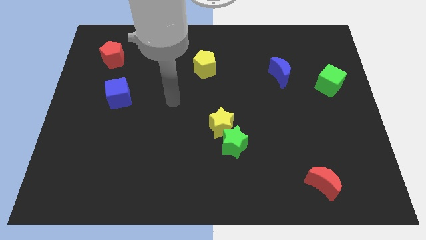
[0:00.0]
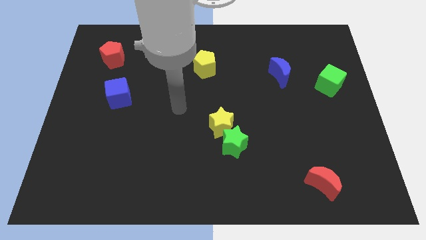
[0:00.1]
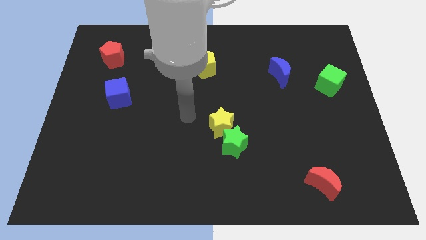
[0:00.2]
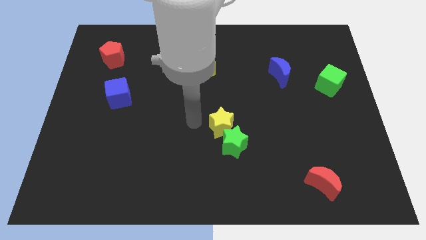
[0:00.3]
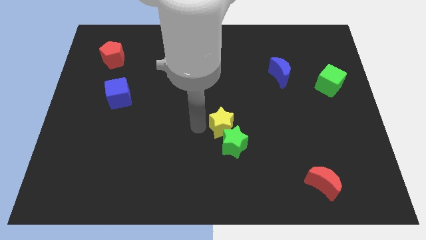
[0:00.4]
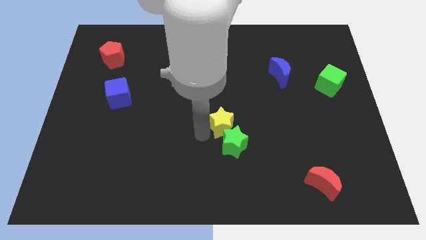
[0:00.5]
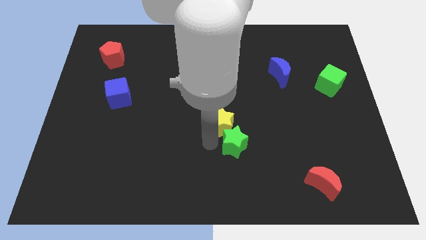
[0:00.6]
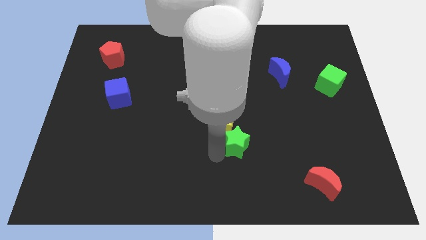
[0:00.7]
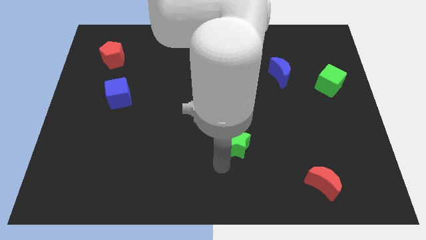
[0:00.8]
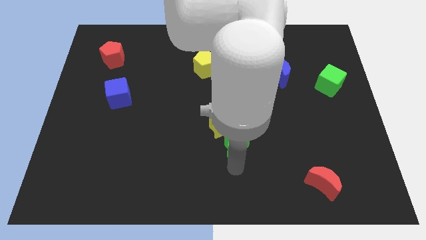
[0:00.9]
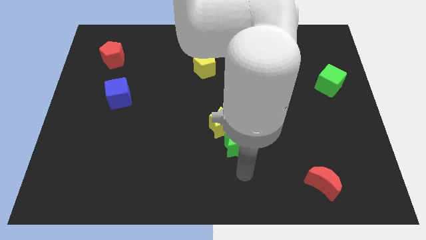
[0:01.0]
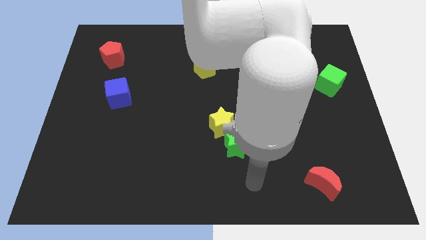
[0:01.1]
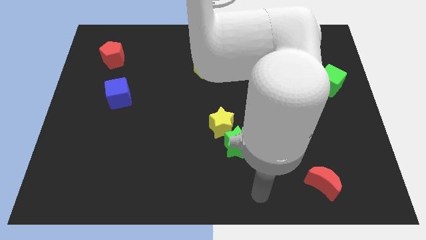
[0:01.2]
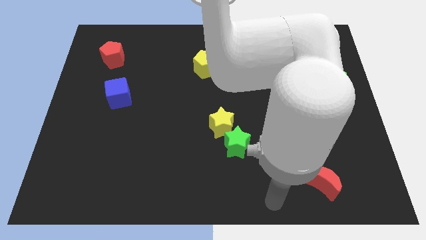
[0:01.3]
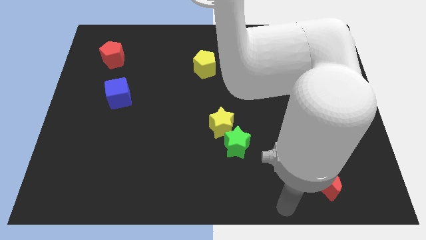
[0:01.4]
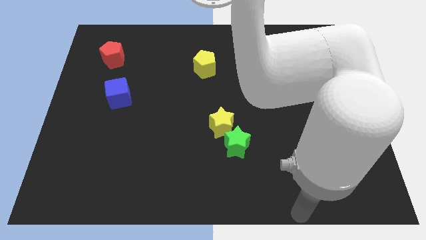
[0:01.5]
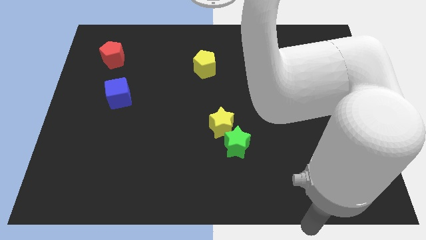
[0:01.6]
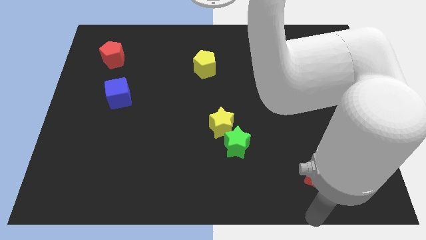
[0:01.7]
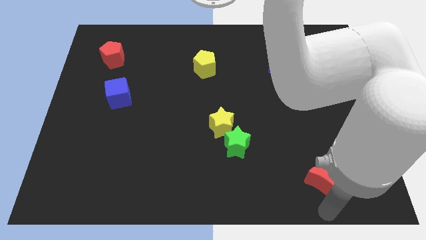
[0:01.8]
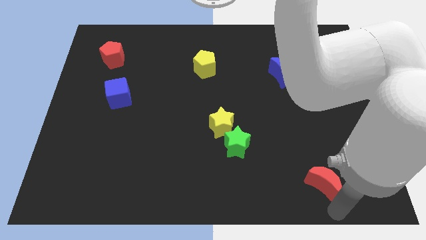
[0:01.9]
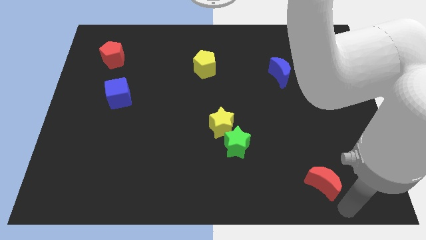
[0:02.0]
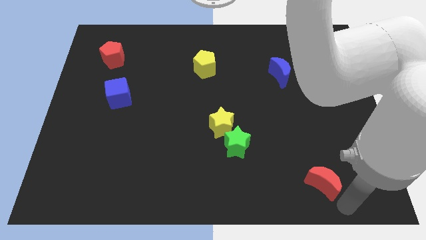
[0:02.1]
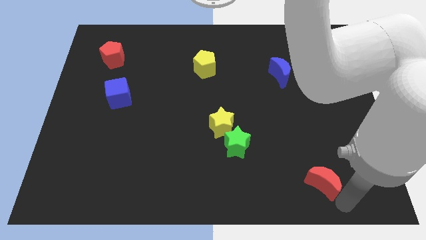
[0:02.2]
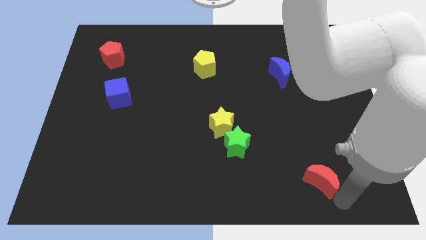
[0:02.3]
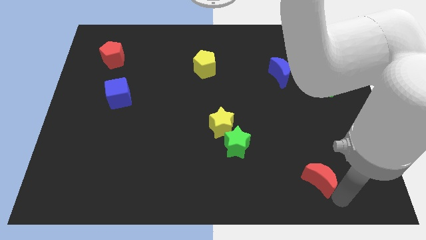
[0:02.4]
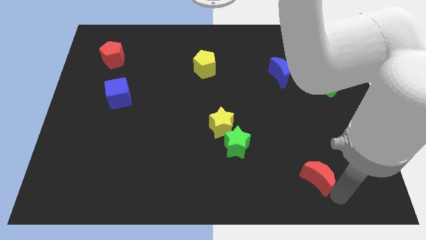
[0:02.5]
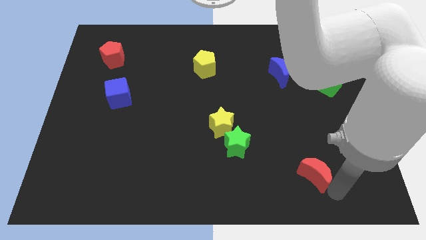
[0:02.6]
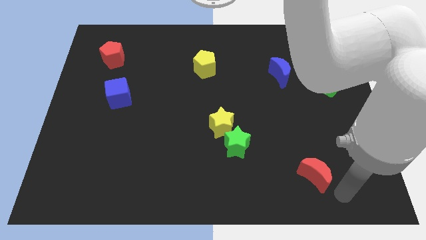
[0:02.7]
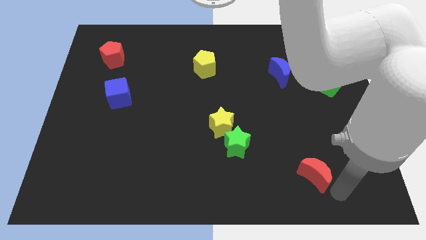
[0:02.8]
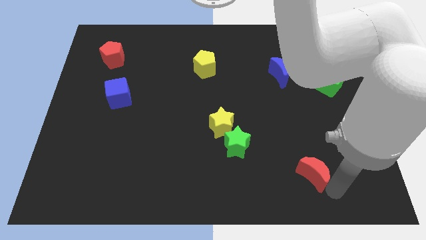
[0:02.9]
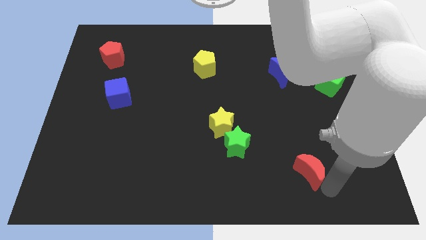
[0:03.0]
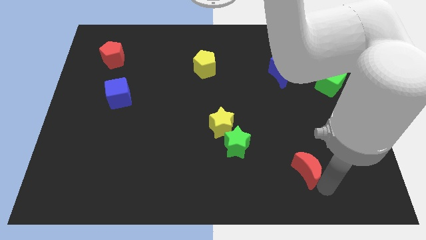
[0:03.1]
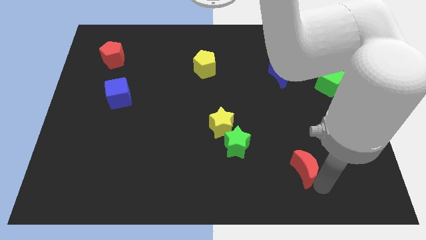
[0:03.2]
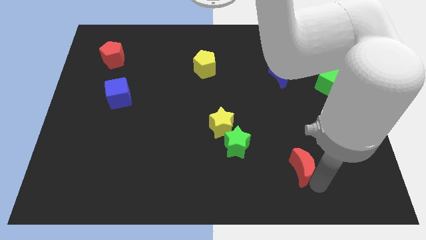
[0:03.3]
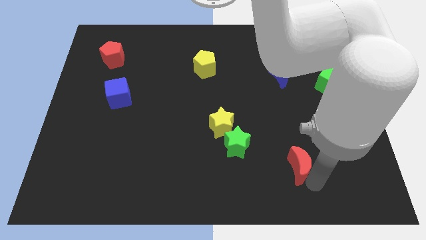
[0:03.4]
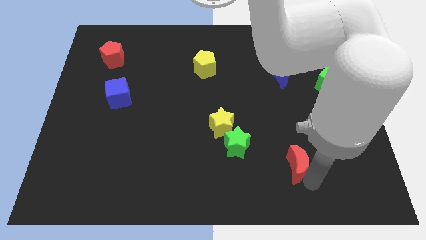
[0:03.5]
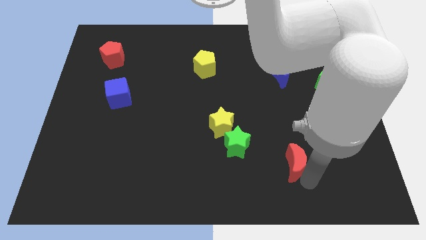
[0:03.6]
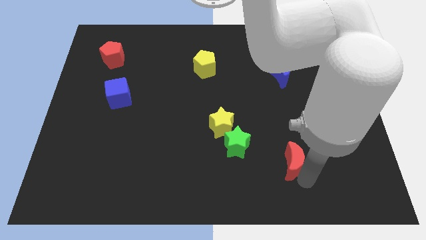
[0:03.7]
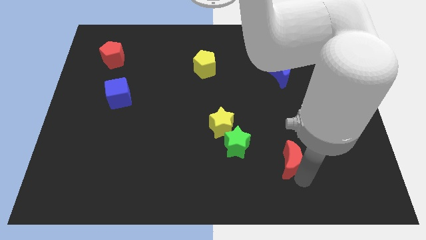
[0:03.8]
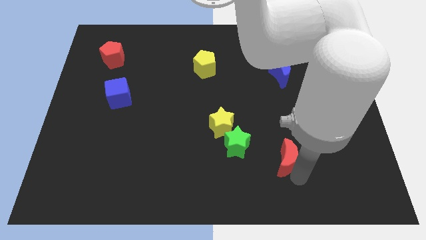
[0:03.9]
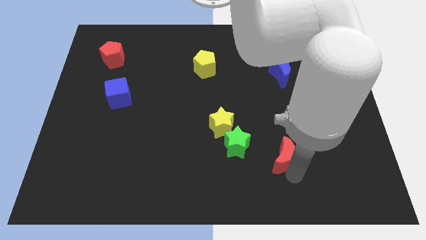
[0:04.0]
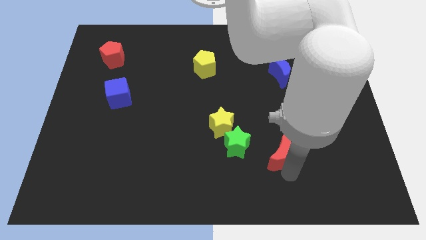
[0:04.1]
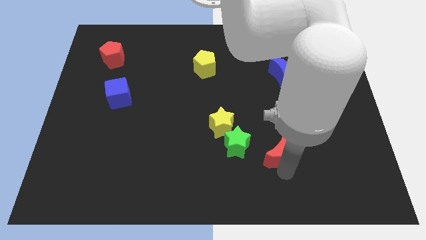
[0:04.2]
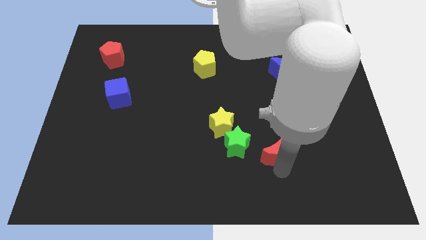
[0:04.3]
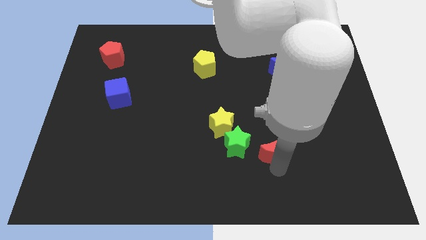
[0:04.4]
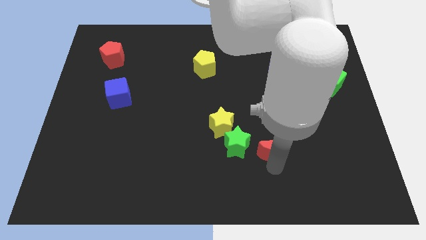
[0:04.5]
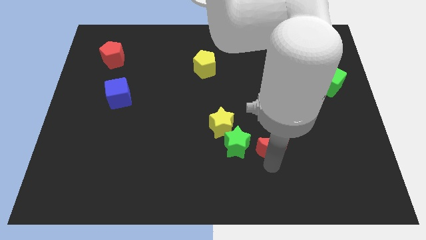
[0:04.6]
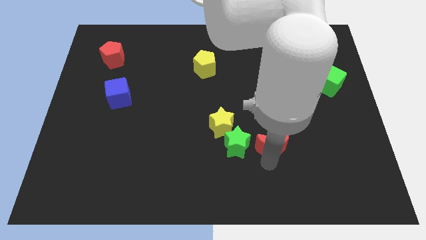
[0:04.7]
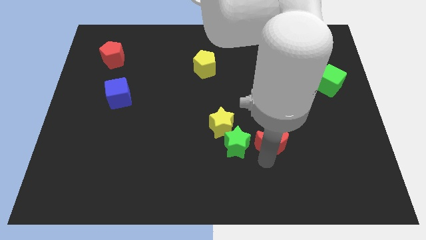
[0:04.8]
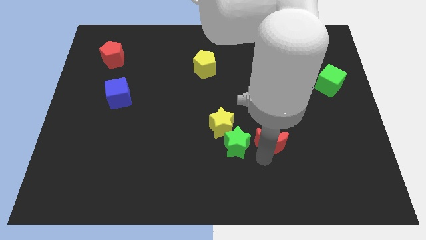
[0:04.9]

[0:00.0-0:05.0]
push the red moon to the right side of the yellow star

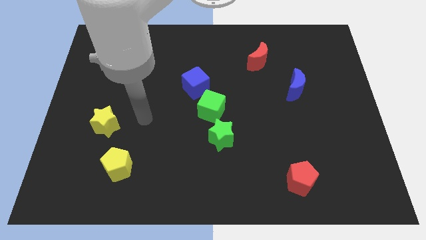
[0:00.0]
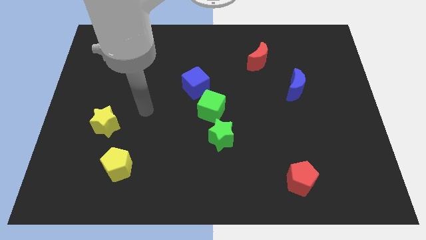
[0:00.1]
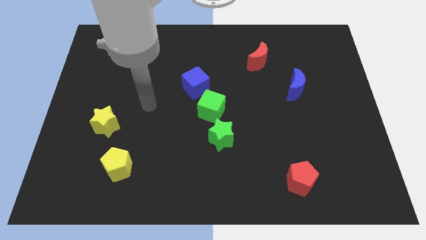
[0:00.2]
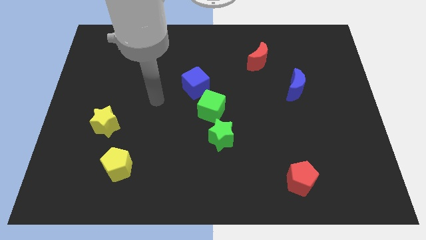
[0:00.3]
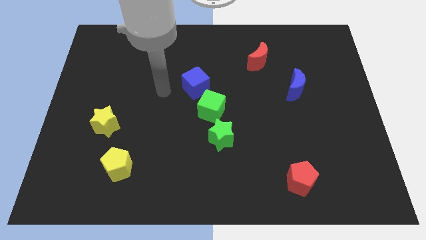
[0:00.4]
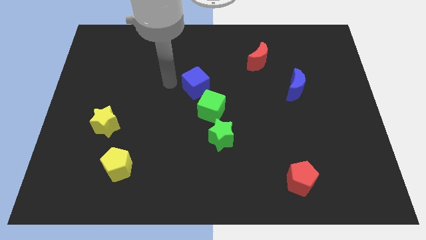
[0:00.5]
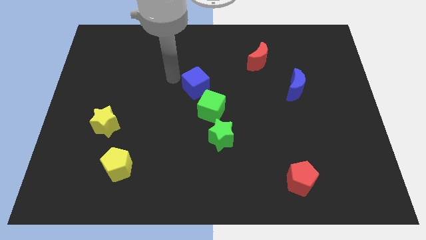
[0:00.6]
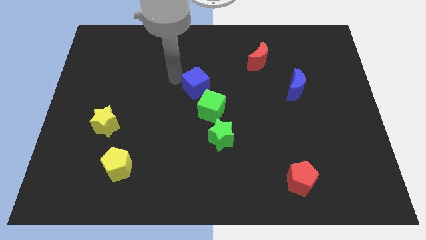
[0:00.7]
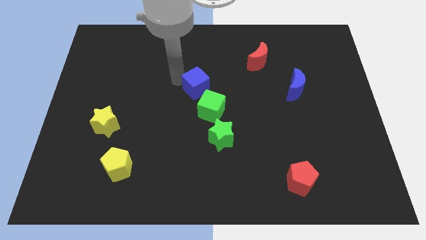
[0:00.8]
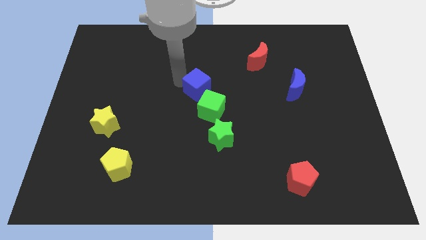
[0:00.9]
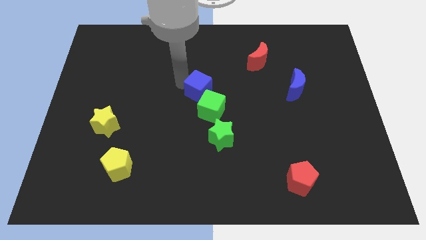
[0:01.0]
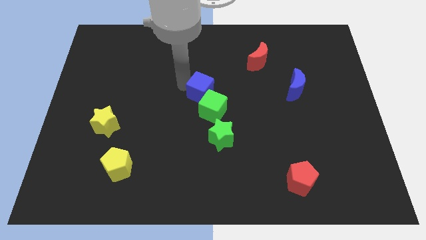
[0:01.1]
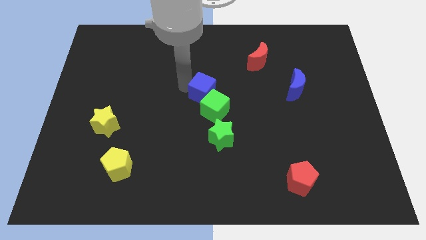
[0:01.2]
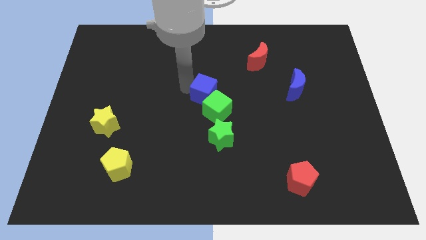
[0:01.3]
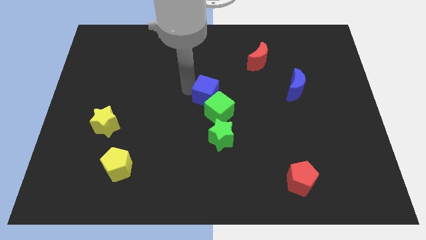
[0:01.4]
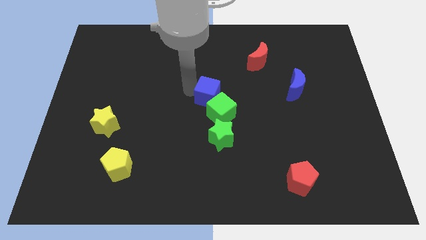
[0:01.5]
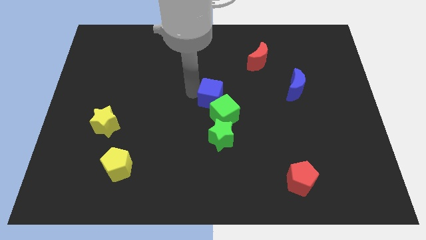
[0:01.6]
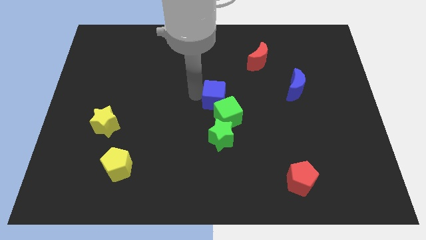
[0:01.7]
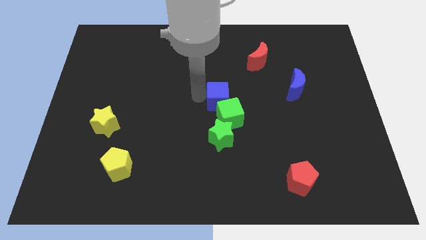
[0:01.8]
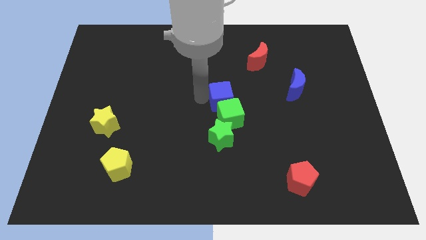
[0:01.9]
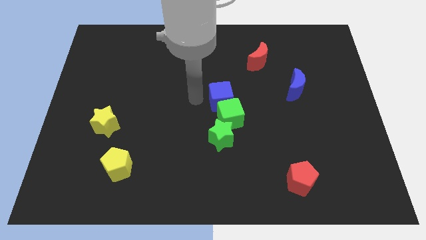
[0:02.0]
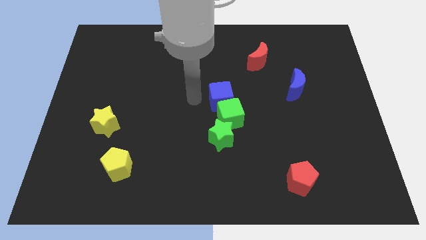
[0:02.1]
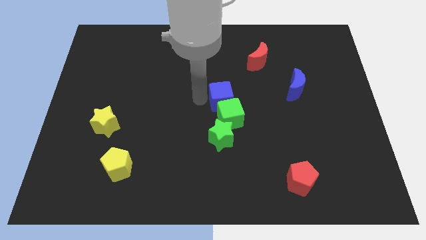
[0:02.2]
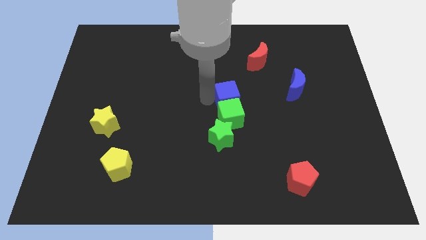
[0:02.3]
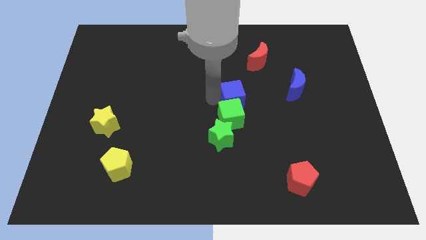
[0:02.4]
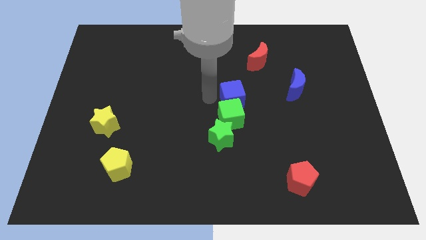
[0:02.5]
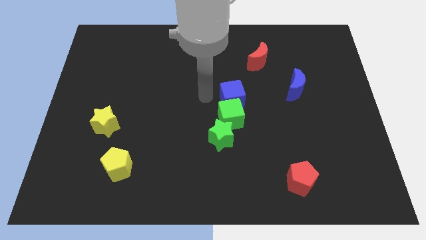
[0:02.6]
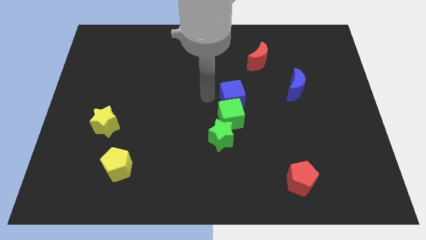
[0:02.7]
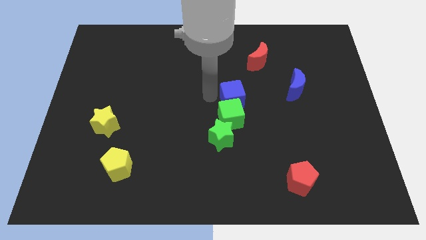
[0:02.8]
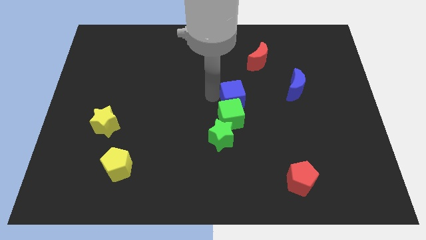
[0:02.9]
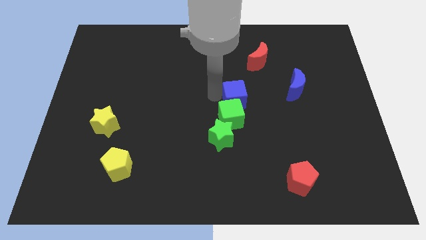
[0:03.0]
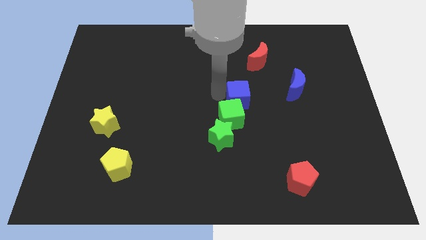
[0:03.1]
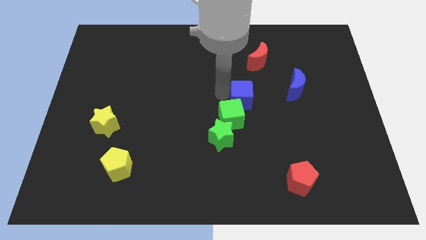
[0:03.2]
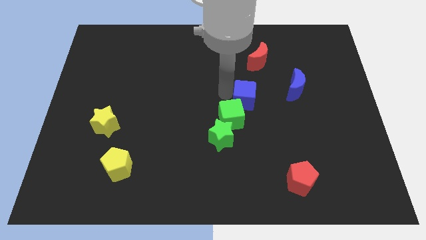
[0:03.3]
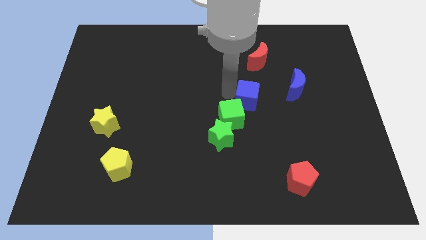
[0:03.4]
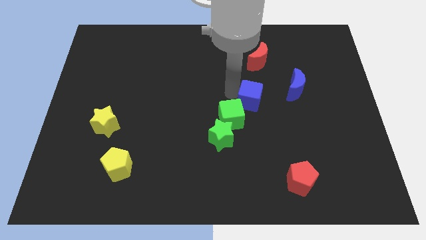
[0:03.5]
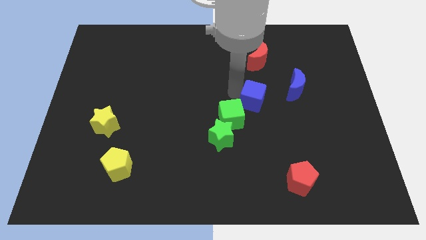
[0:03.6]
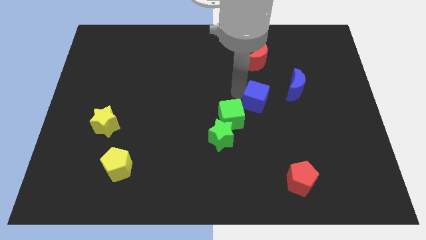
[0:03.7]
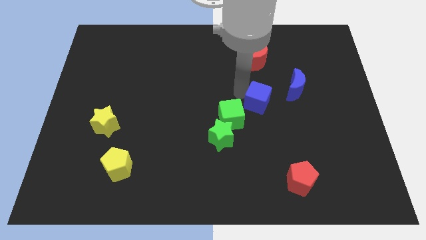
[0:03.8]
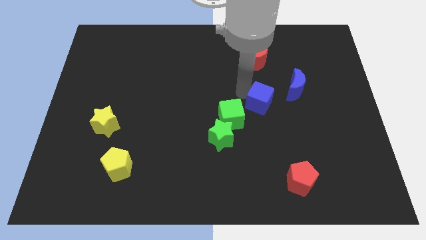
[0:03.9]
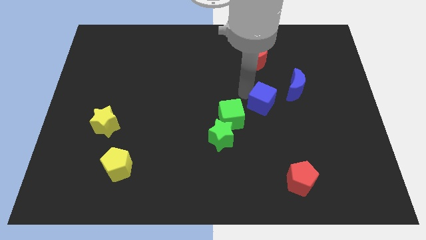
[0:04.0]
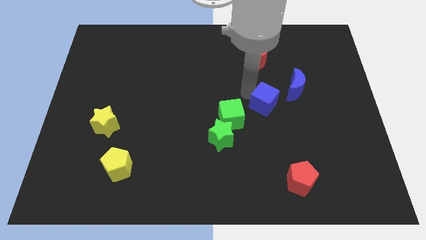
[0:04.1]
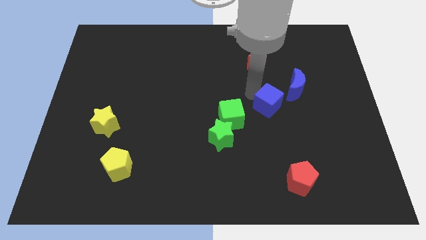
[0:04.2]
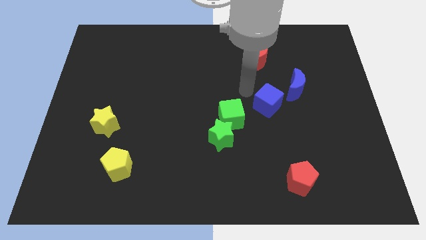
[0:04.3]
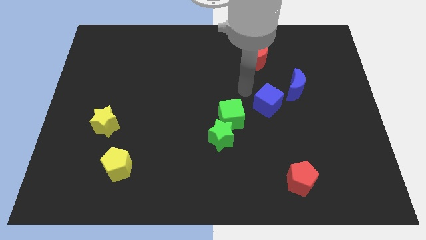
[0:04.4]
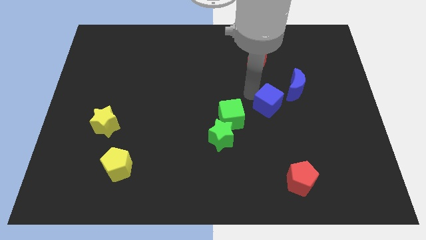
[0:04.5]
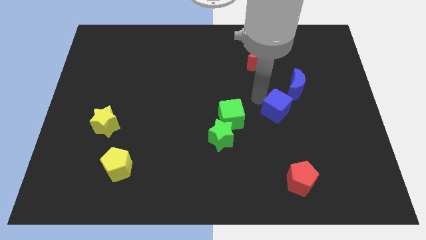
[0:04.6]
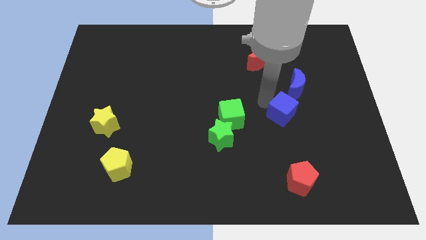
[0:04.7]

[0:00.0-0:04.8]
push the blue cube to the bottom side of the blue moon
